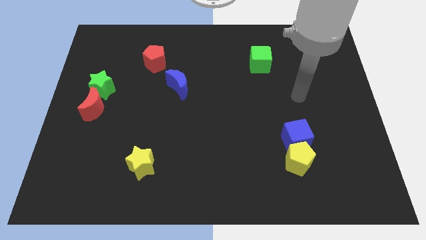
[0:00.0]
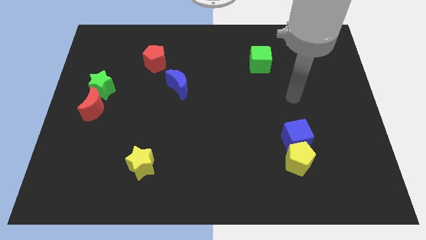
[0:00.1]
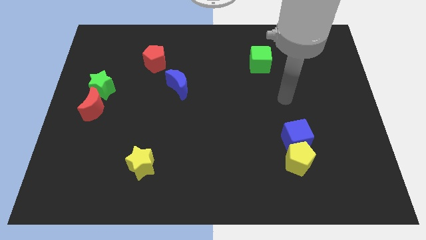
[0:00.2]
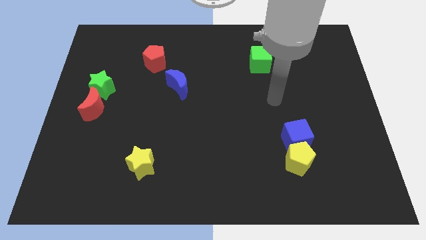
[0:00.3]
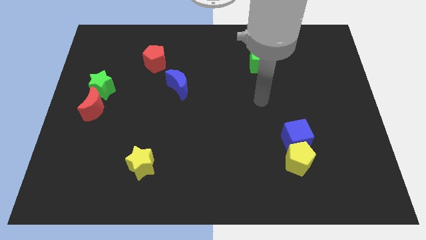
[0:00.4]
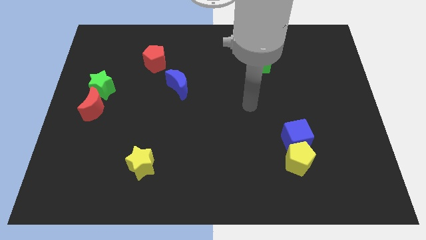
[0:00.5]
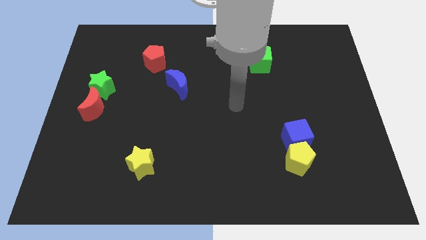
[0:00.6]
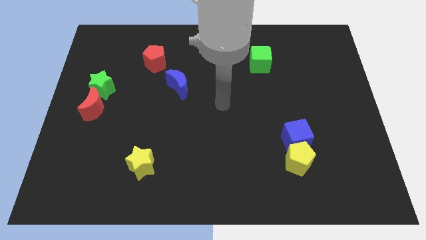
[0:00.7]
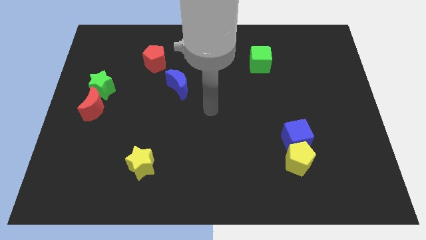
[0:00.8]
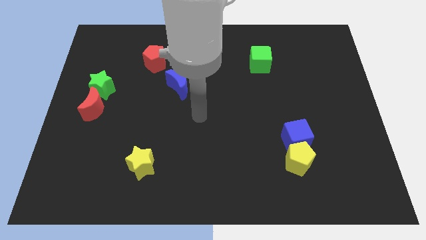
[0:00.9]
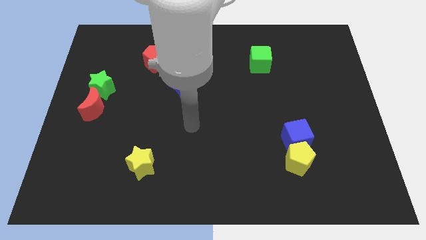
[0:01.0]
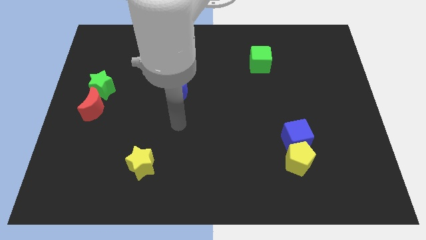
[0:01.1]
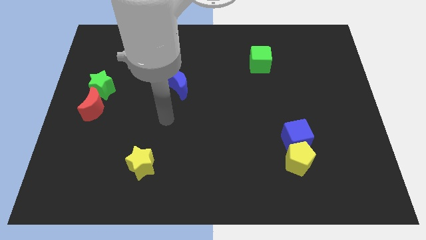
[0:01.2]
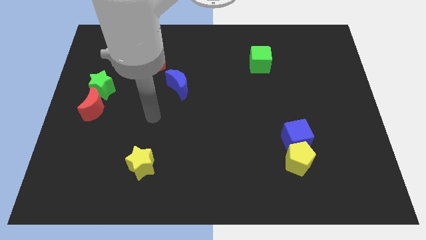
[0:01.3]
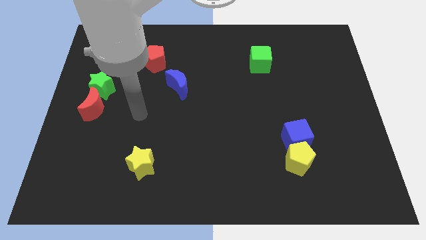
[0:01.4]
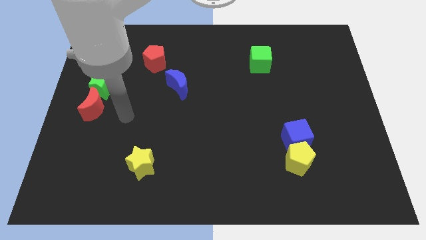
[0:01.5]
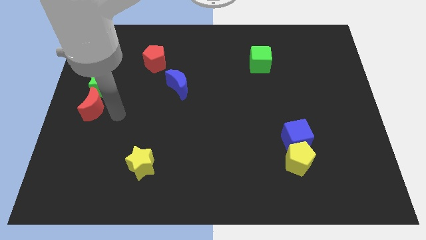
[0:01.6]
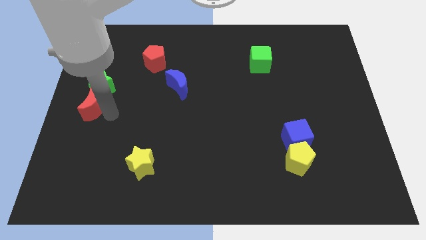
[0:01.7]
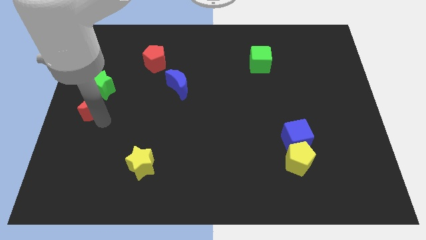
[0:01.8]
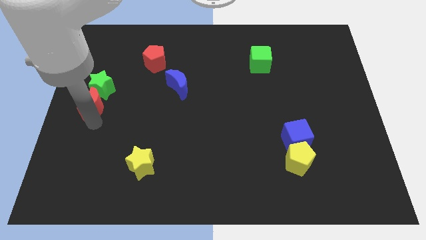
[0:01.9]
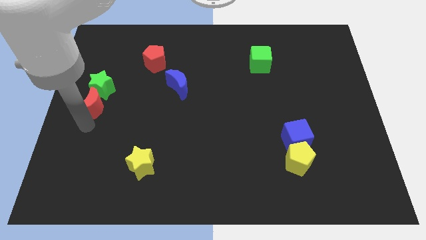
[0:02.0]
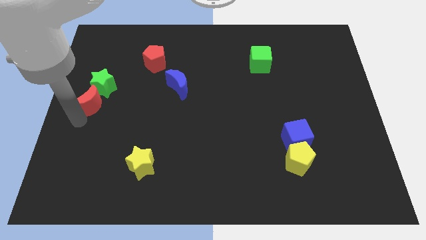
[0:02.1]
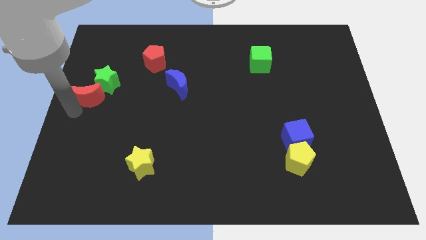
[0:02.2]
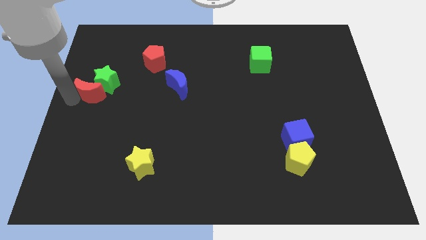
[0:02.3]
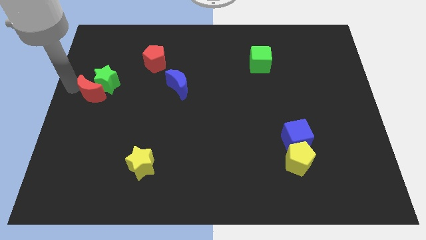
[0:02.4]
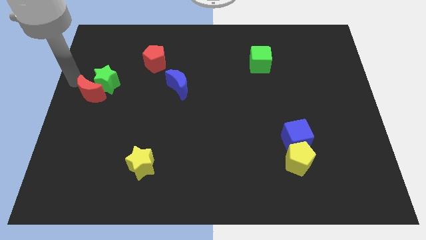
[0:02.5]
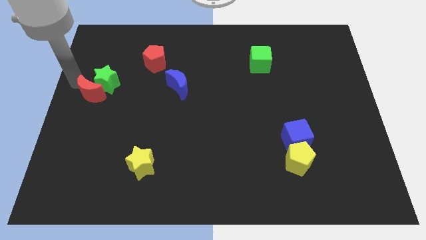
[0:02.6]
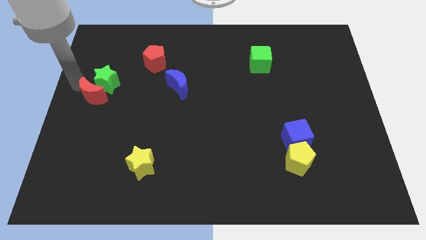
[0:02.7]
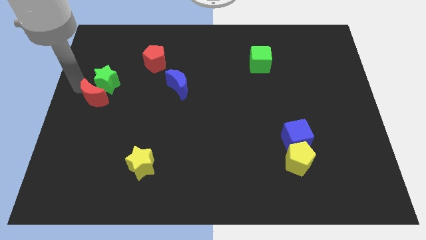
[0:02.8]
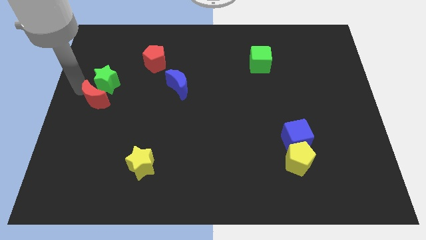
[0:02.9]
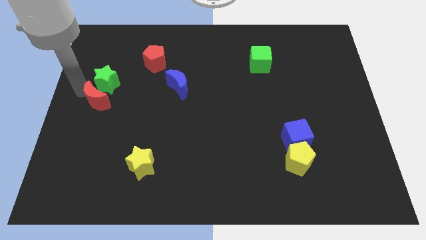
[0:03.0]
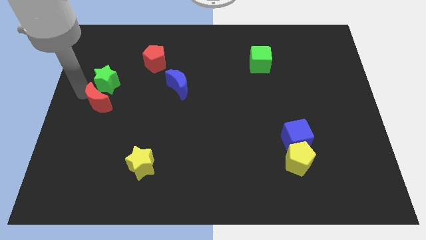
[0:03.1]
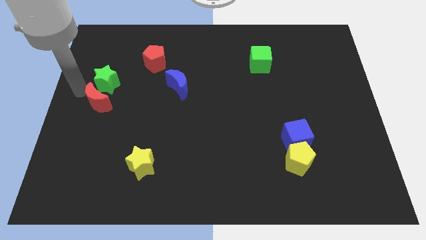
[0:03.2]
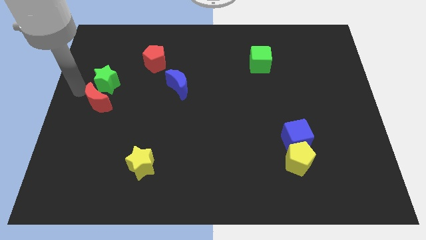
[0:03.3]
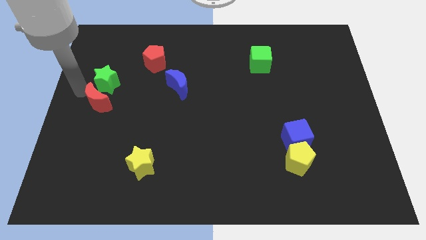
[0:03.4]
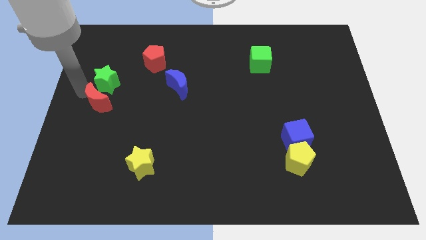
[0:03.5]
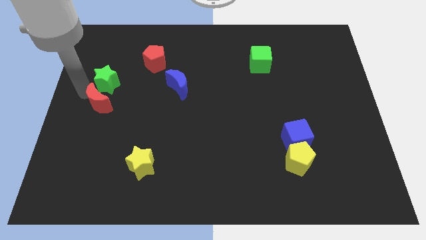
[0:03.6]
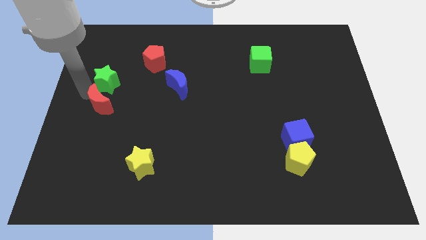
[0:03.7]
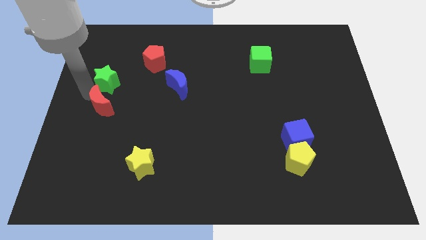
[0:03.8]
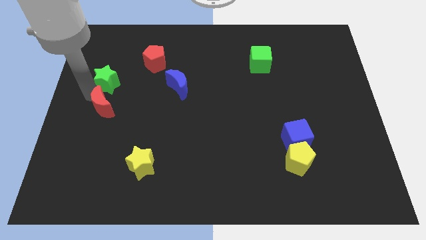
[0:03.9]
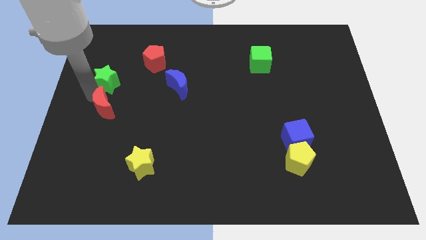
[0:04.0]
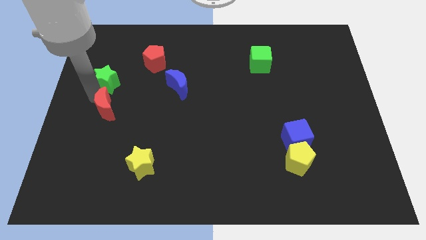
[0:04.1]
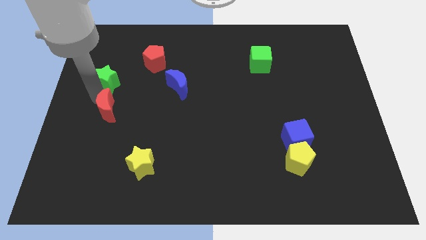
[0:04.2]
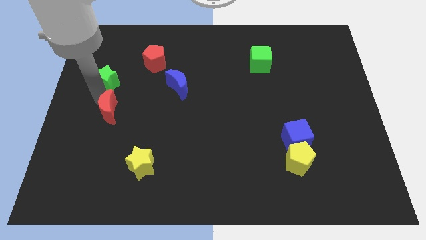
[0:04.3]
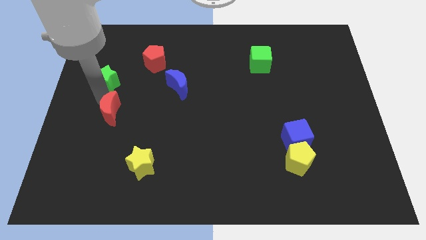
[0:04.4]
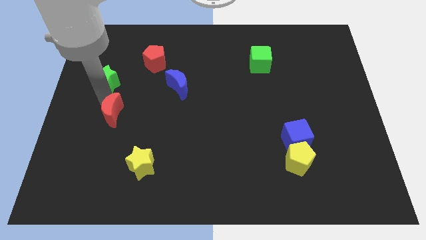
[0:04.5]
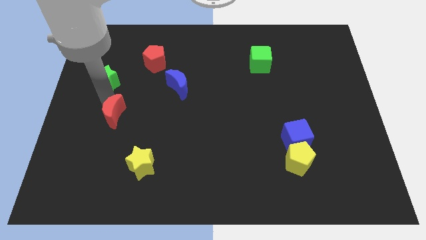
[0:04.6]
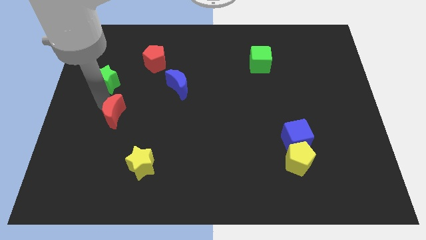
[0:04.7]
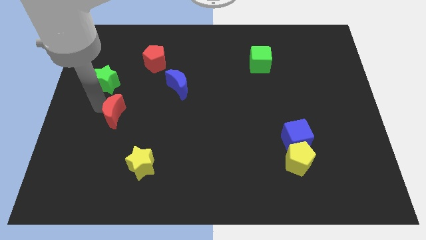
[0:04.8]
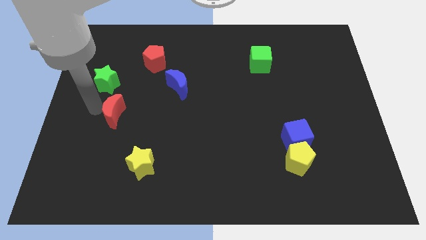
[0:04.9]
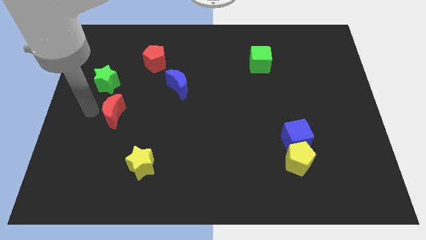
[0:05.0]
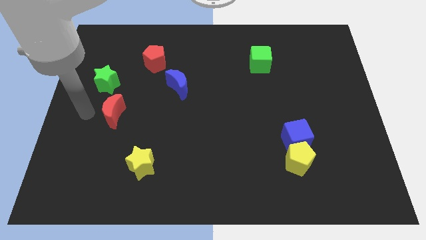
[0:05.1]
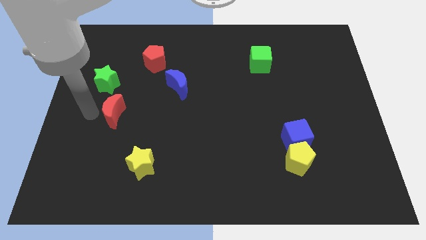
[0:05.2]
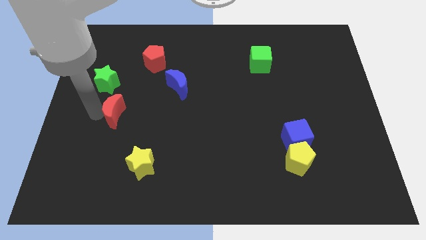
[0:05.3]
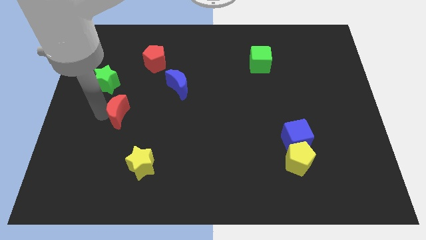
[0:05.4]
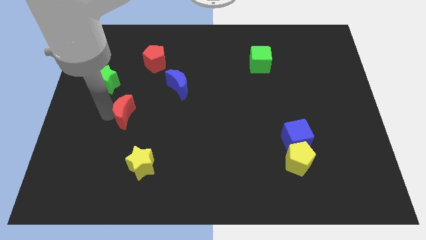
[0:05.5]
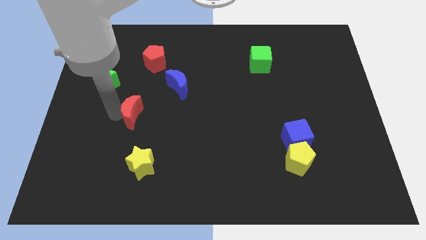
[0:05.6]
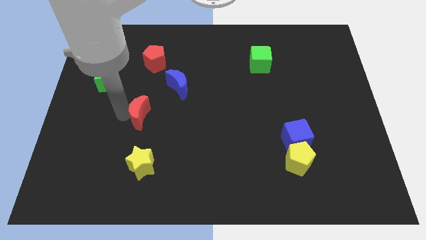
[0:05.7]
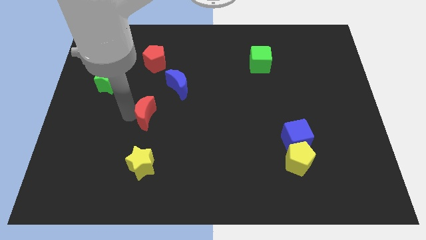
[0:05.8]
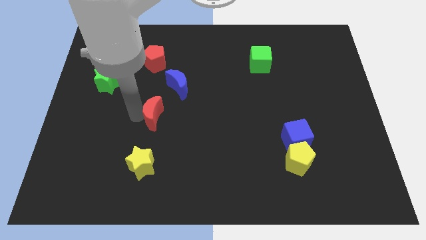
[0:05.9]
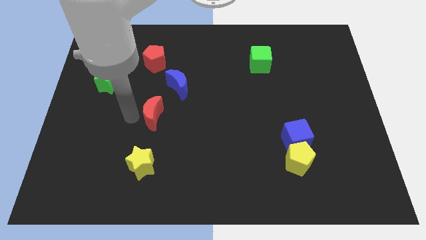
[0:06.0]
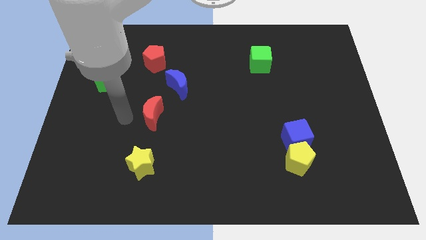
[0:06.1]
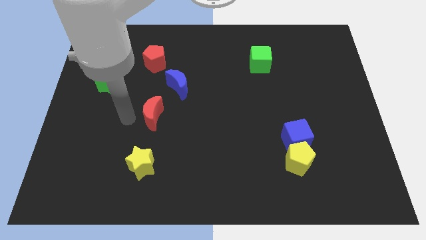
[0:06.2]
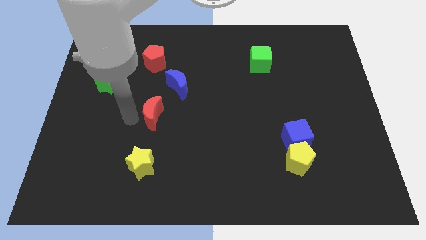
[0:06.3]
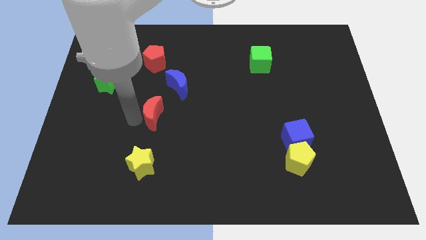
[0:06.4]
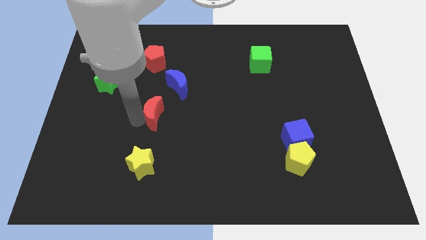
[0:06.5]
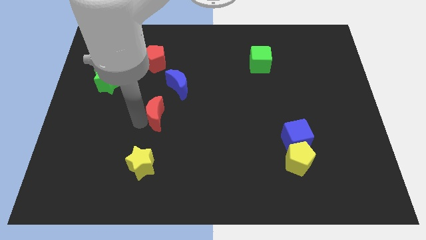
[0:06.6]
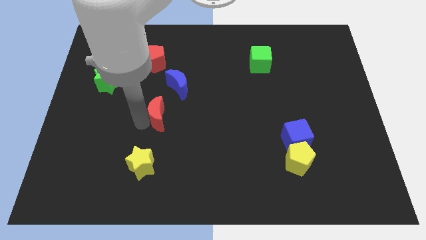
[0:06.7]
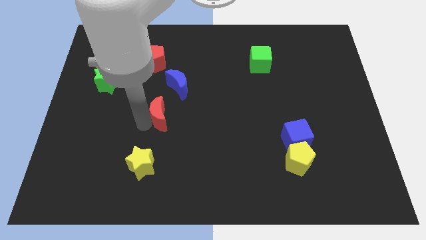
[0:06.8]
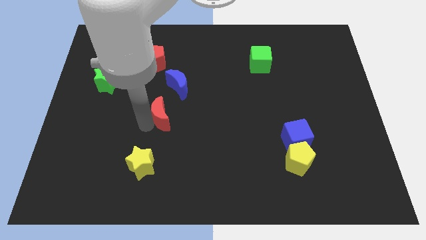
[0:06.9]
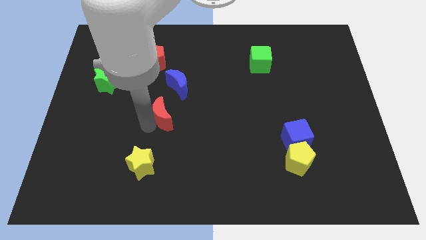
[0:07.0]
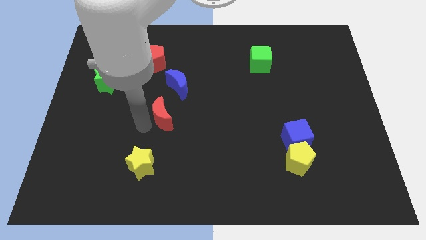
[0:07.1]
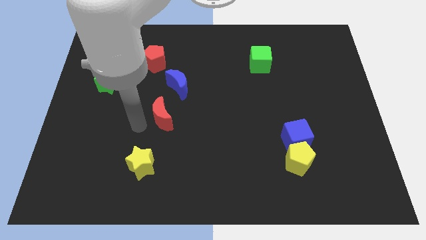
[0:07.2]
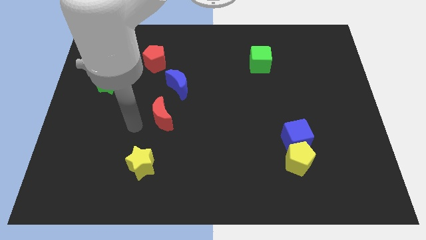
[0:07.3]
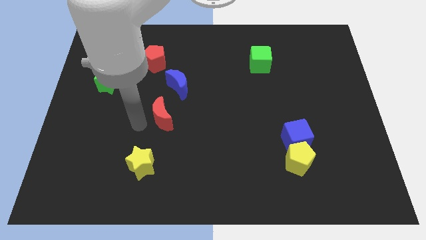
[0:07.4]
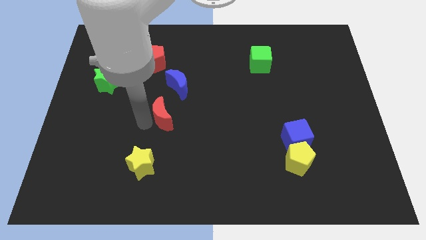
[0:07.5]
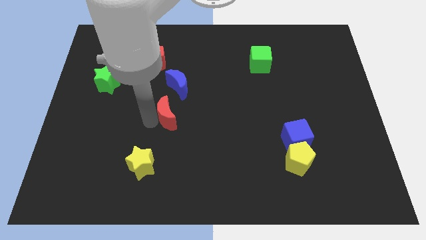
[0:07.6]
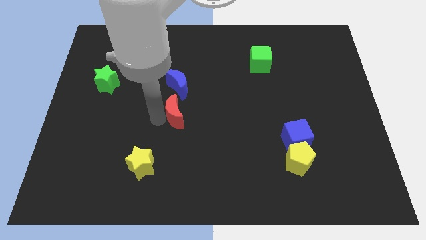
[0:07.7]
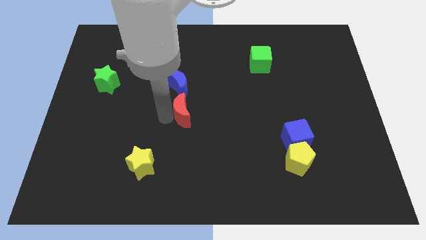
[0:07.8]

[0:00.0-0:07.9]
push the red moon right

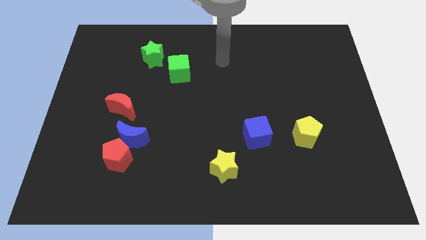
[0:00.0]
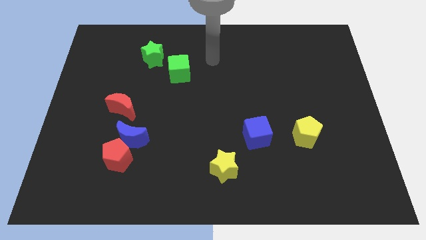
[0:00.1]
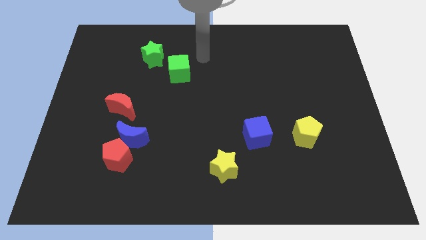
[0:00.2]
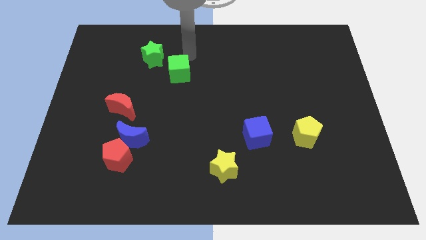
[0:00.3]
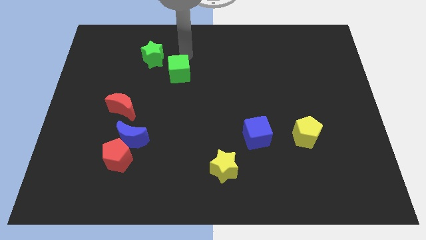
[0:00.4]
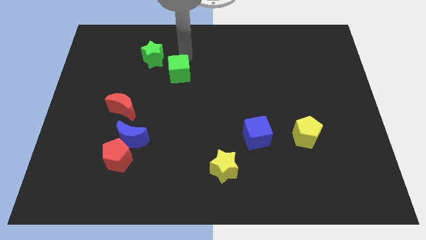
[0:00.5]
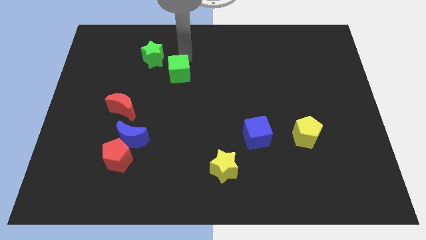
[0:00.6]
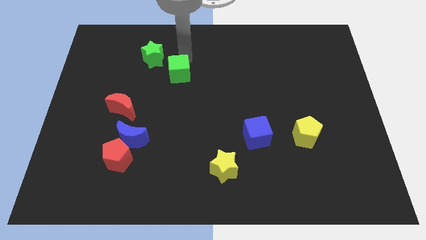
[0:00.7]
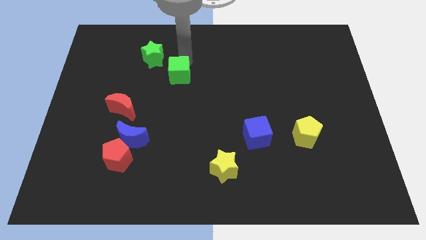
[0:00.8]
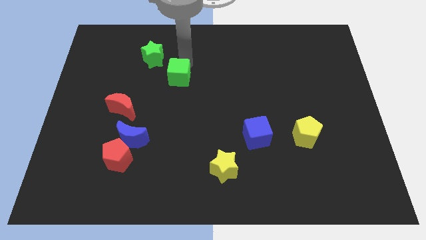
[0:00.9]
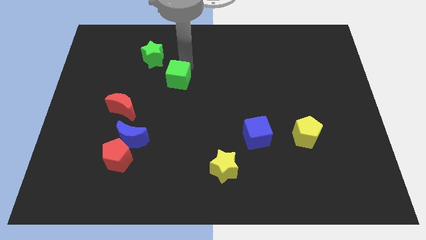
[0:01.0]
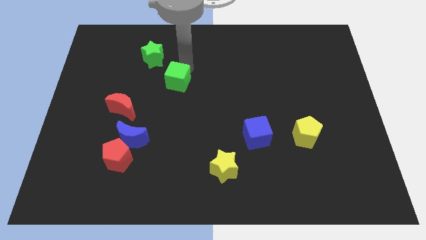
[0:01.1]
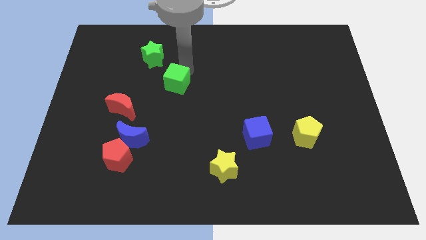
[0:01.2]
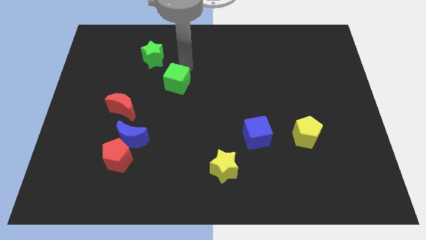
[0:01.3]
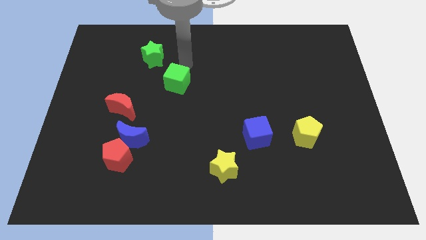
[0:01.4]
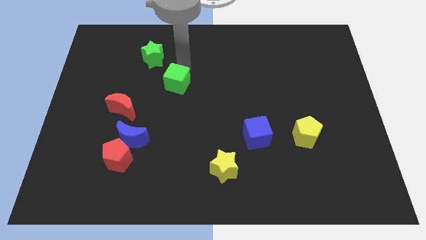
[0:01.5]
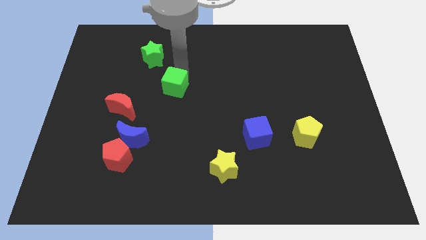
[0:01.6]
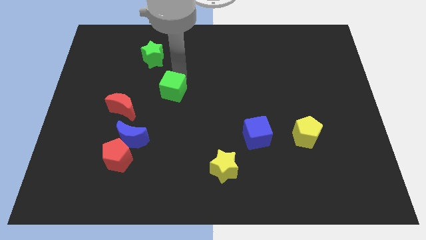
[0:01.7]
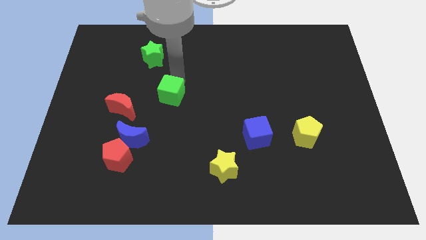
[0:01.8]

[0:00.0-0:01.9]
slide the green cube somewhat downwards
